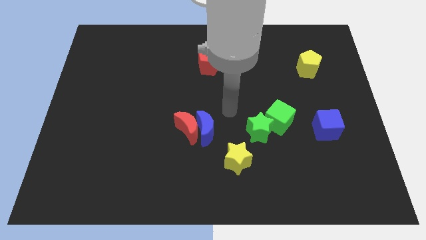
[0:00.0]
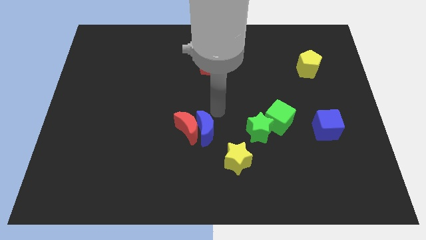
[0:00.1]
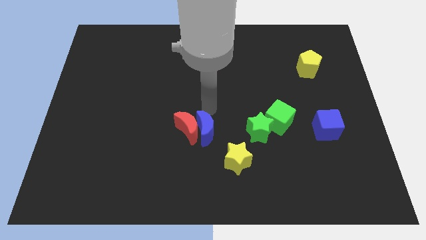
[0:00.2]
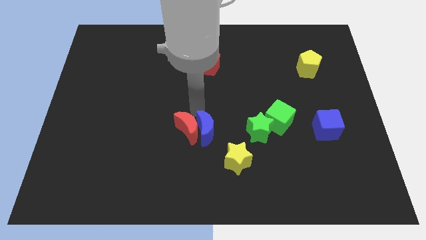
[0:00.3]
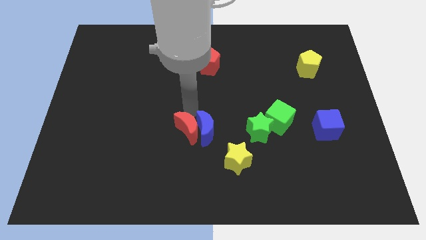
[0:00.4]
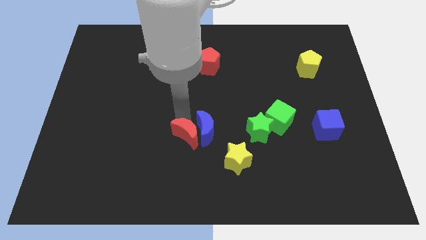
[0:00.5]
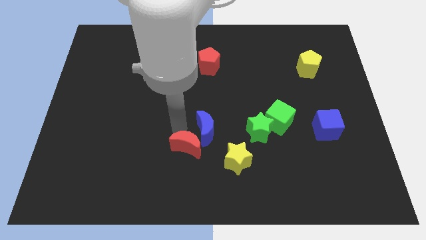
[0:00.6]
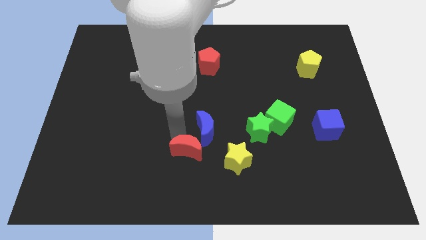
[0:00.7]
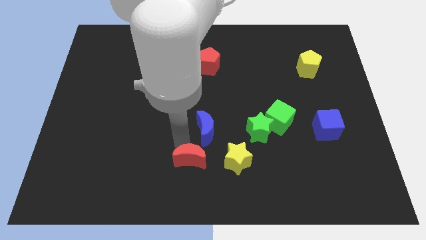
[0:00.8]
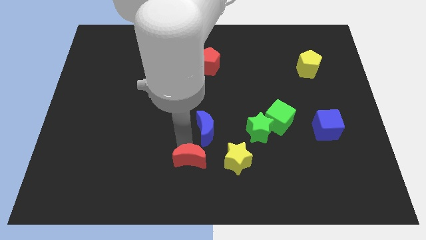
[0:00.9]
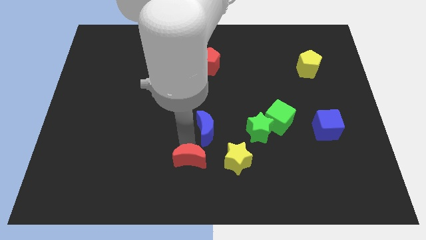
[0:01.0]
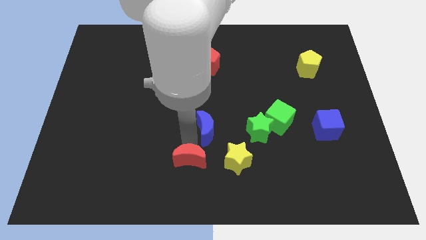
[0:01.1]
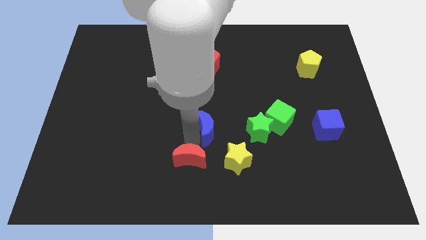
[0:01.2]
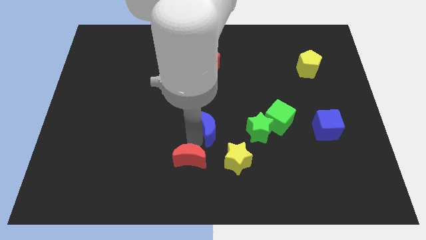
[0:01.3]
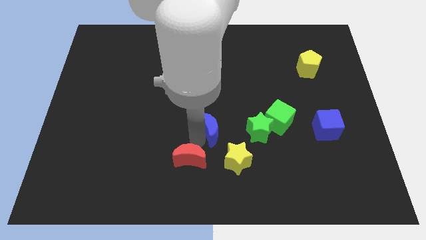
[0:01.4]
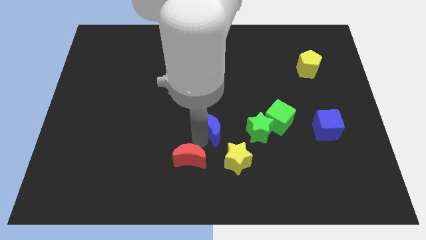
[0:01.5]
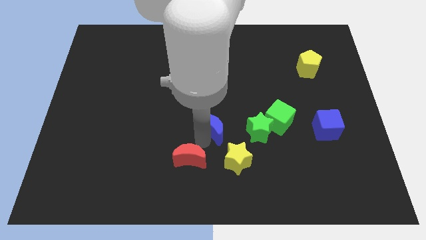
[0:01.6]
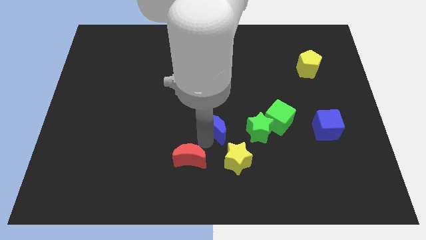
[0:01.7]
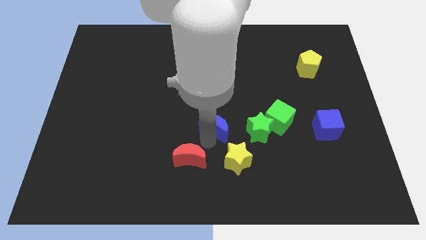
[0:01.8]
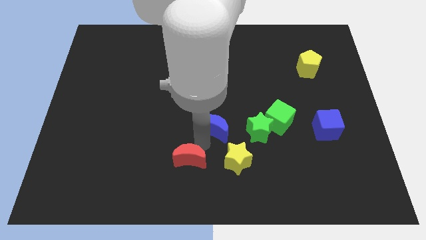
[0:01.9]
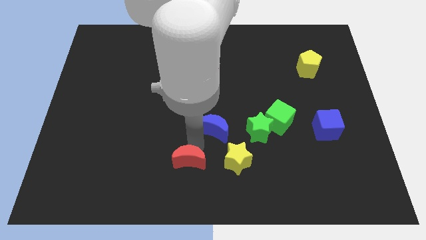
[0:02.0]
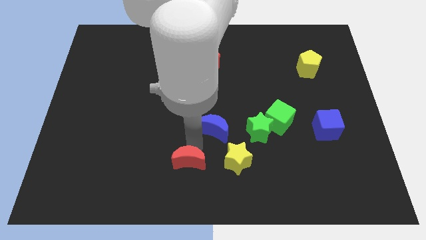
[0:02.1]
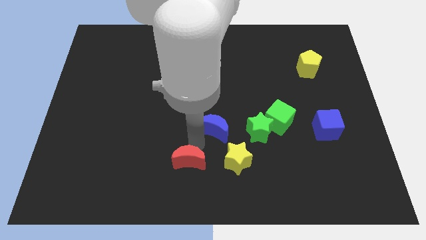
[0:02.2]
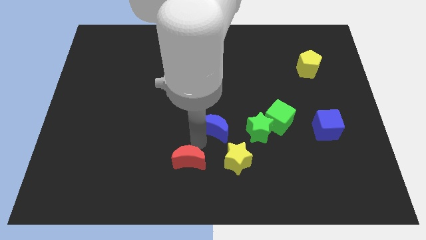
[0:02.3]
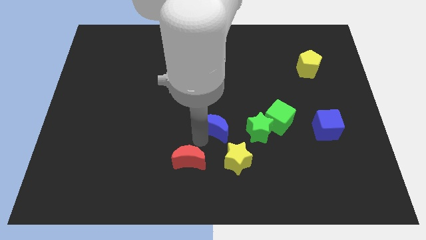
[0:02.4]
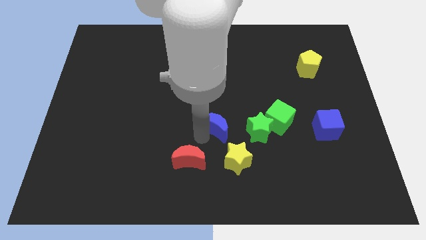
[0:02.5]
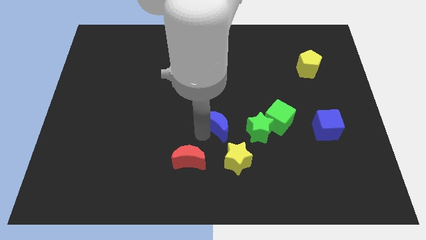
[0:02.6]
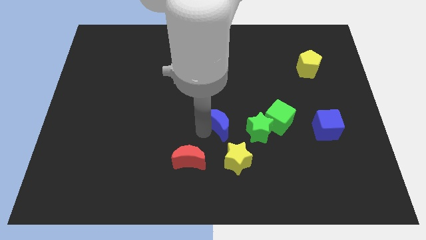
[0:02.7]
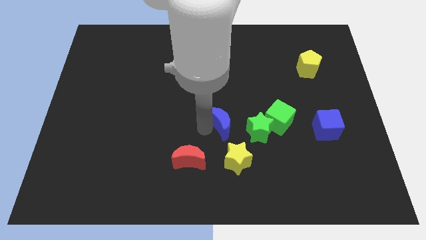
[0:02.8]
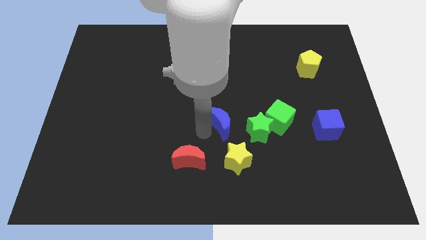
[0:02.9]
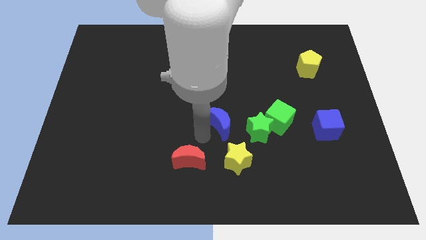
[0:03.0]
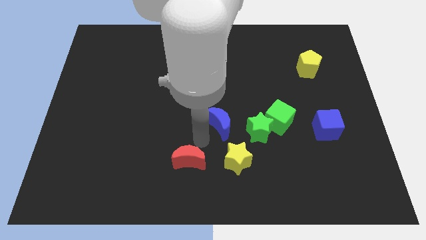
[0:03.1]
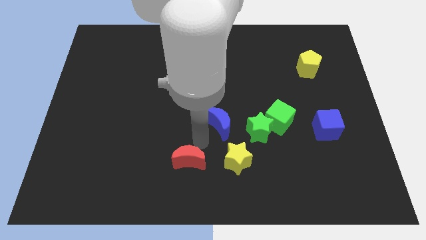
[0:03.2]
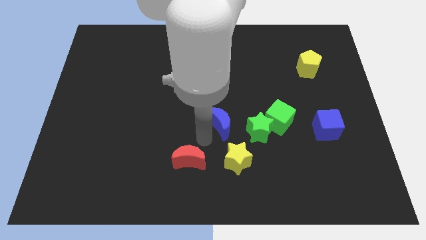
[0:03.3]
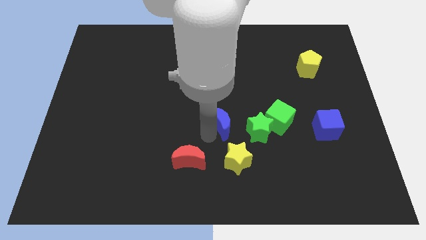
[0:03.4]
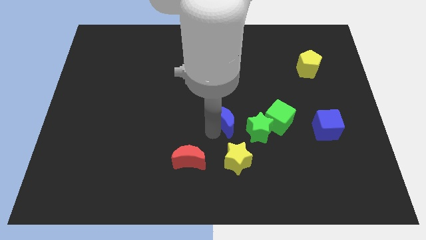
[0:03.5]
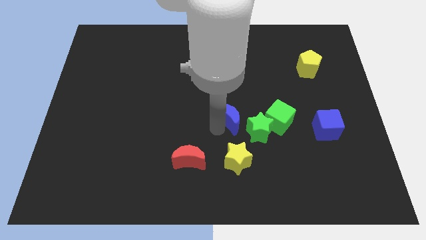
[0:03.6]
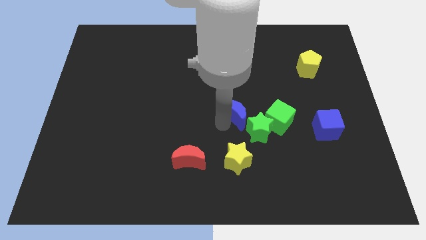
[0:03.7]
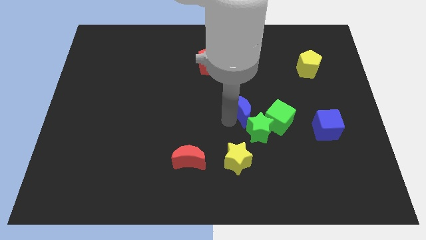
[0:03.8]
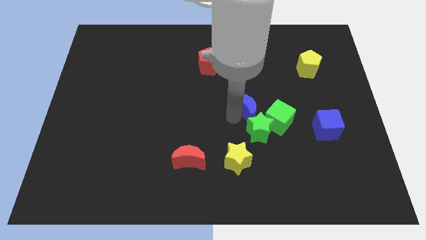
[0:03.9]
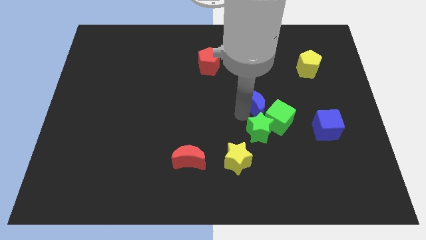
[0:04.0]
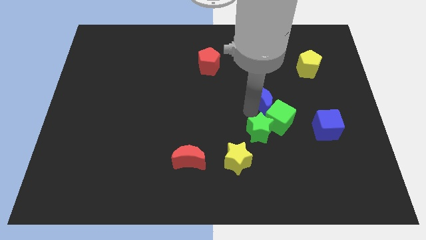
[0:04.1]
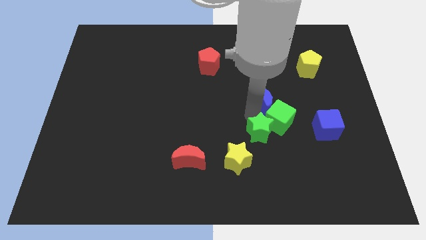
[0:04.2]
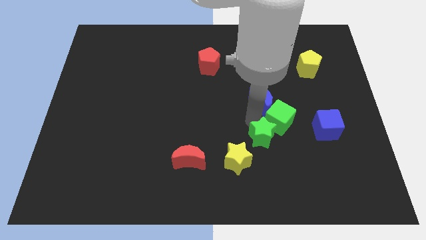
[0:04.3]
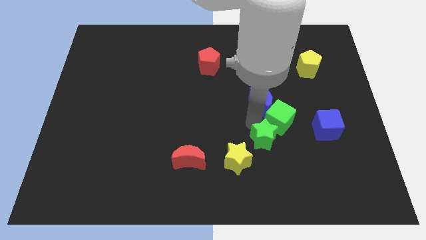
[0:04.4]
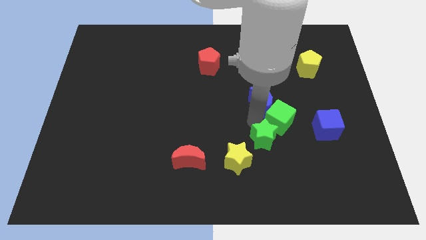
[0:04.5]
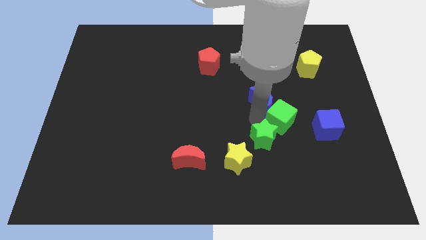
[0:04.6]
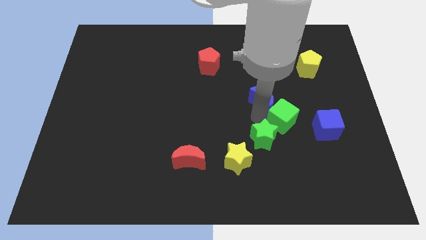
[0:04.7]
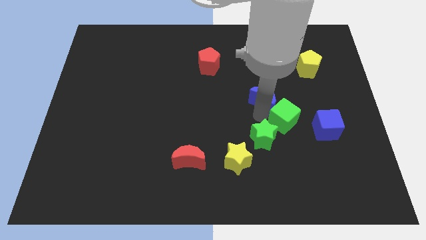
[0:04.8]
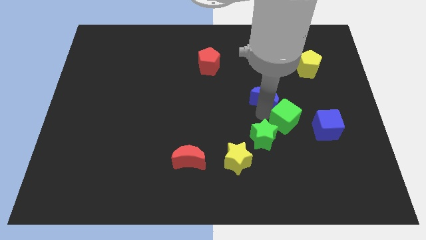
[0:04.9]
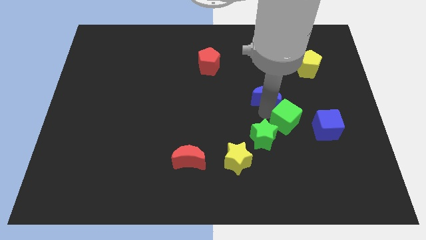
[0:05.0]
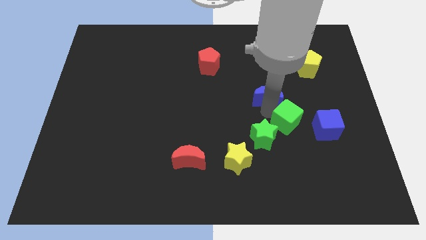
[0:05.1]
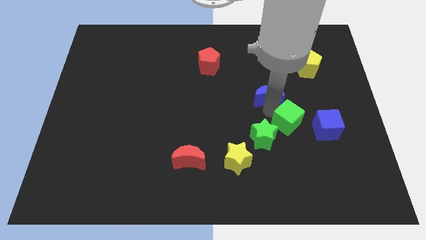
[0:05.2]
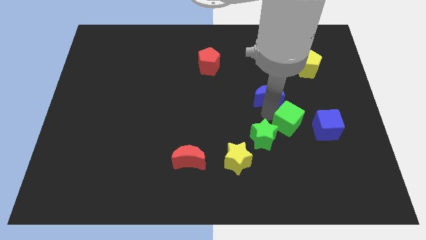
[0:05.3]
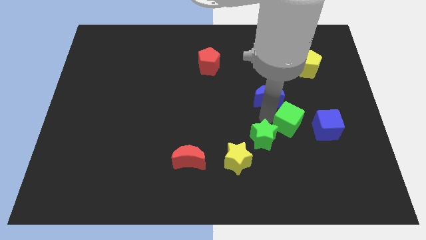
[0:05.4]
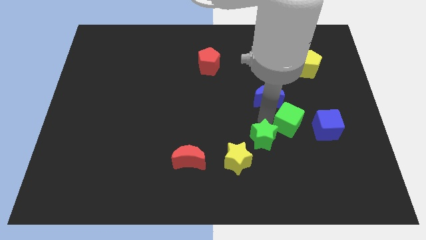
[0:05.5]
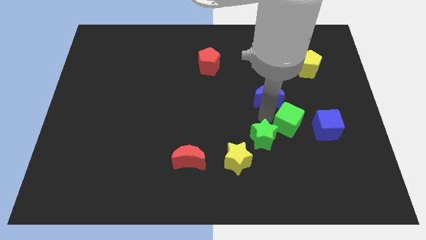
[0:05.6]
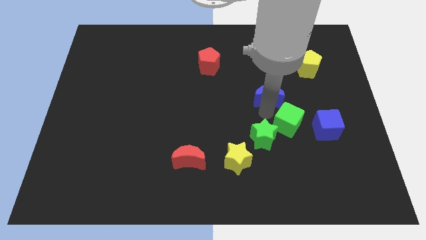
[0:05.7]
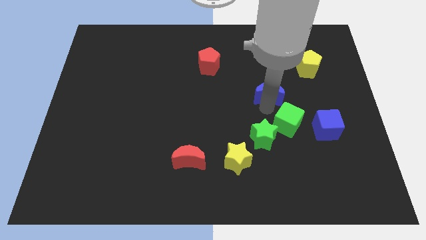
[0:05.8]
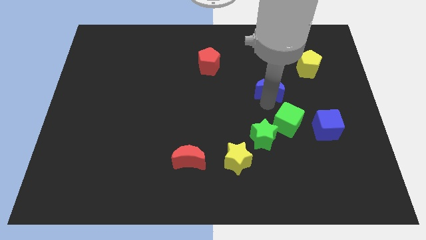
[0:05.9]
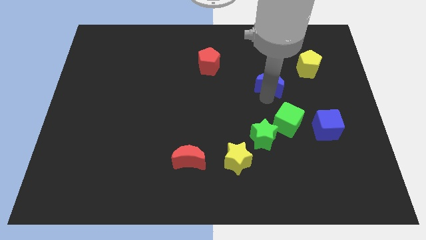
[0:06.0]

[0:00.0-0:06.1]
push the blue moon upwards and to the right diagonally

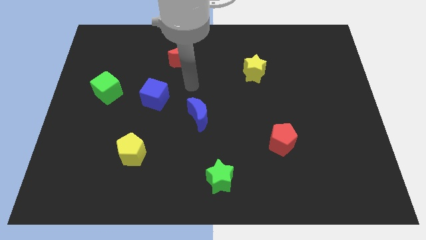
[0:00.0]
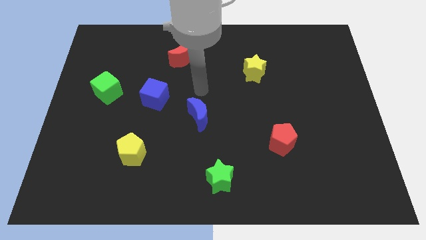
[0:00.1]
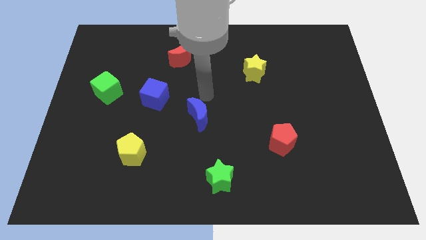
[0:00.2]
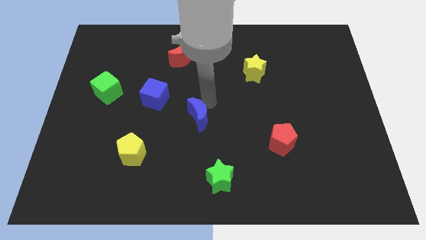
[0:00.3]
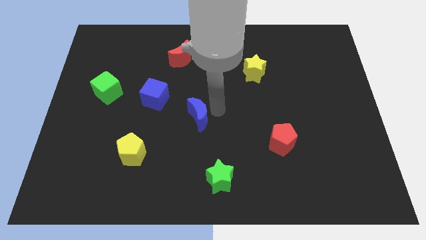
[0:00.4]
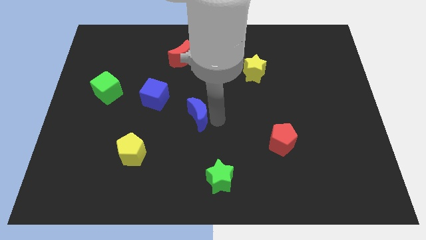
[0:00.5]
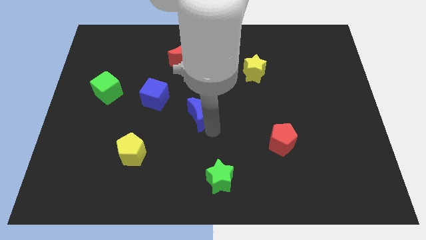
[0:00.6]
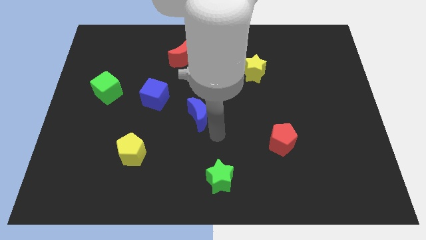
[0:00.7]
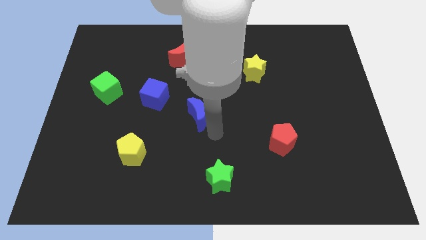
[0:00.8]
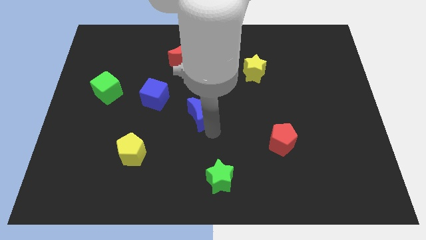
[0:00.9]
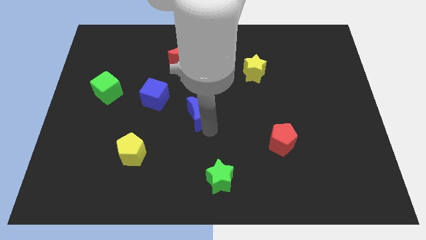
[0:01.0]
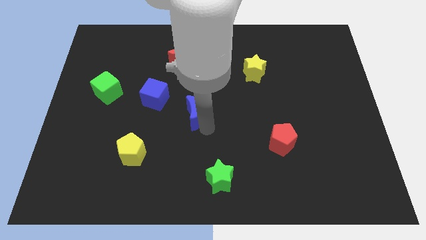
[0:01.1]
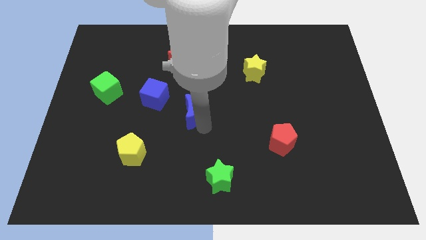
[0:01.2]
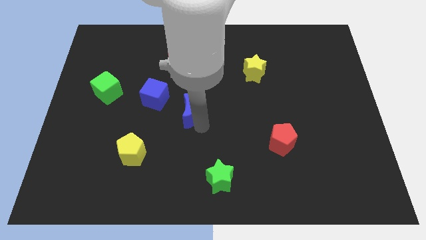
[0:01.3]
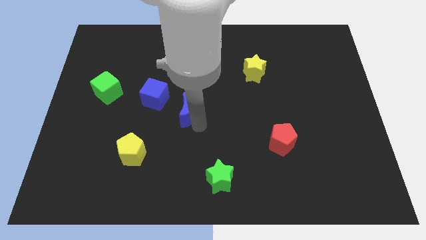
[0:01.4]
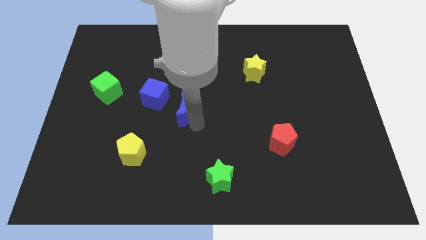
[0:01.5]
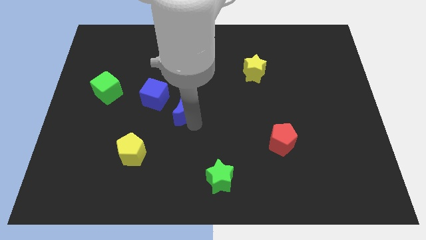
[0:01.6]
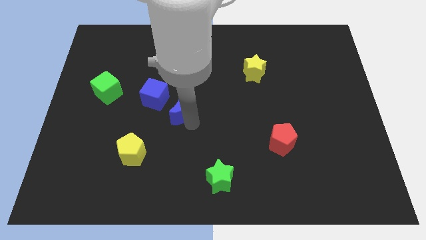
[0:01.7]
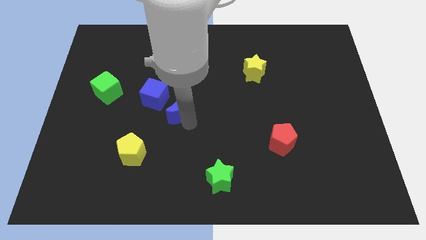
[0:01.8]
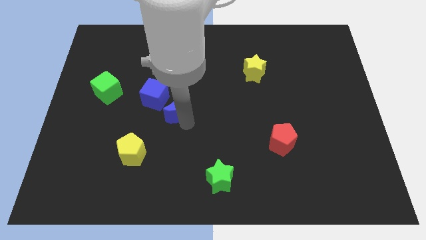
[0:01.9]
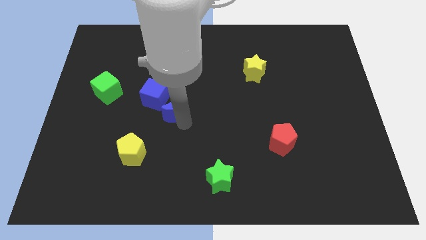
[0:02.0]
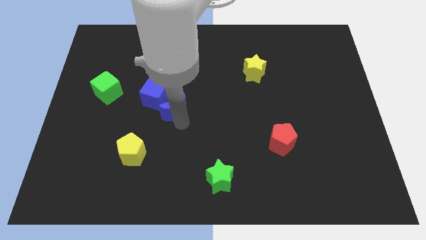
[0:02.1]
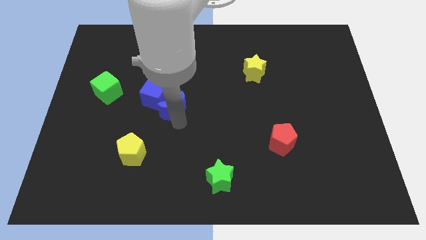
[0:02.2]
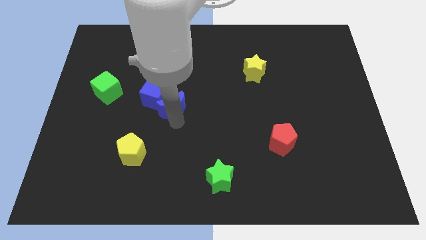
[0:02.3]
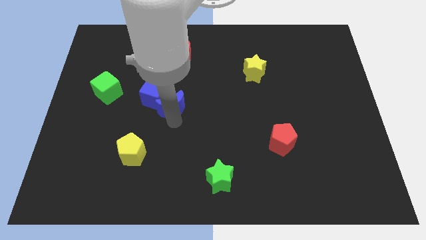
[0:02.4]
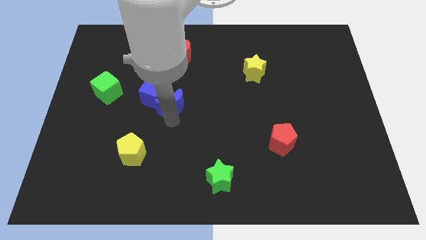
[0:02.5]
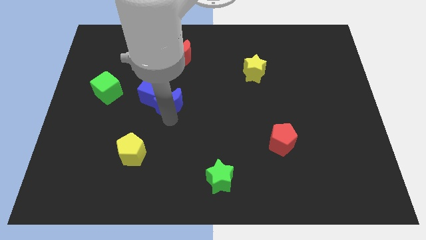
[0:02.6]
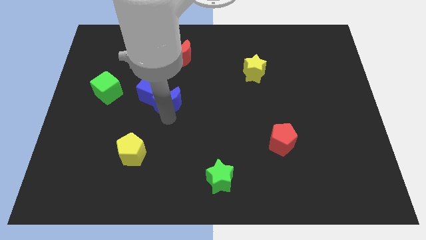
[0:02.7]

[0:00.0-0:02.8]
move the blue moon up and then left slightly
